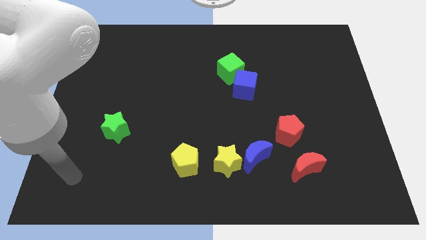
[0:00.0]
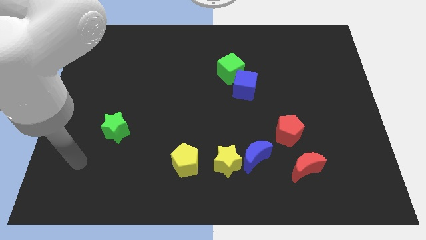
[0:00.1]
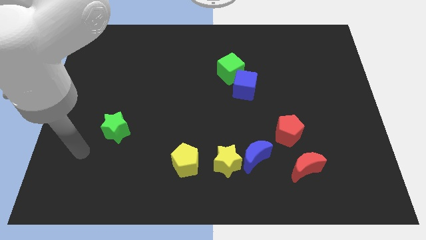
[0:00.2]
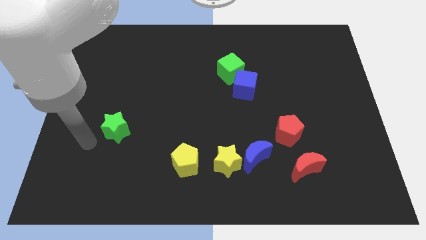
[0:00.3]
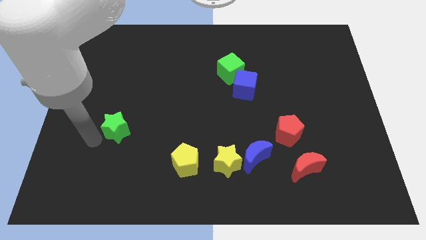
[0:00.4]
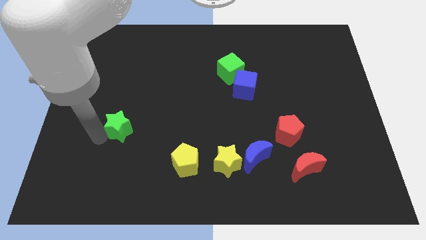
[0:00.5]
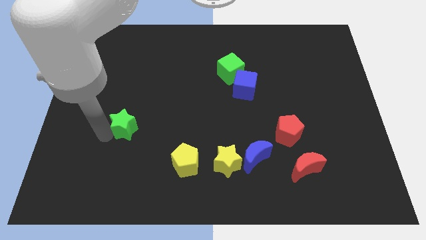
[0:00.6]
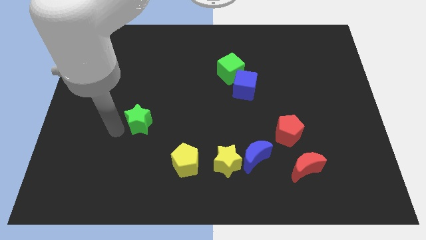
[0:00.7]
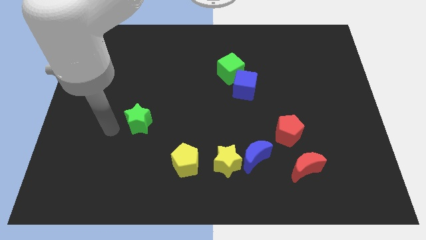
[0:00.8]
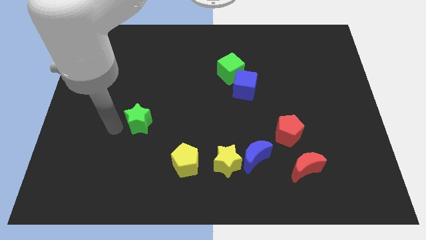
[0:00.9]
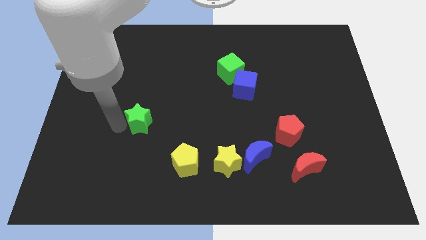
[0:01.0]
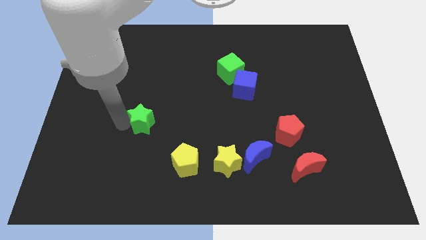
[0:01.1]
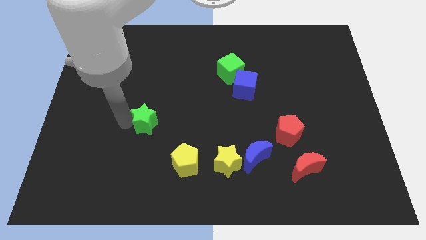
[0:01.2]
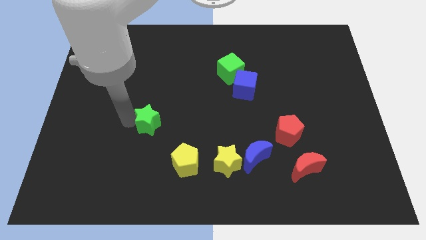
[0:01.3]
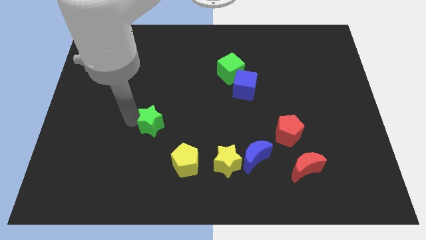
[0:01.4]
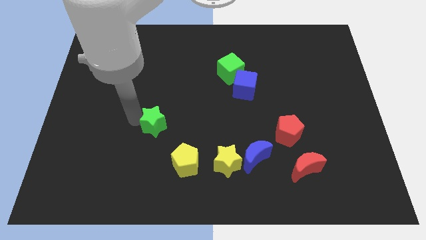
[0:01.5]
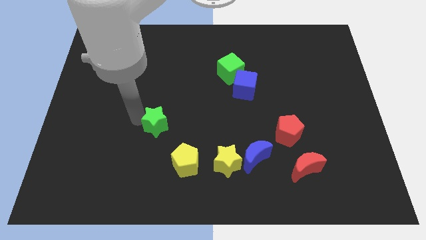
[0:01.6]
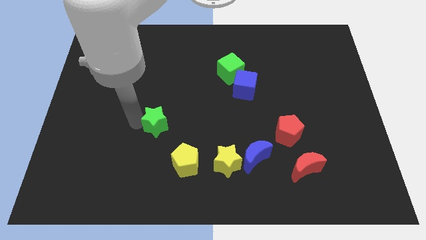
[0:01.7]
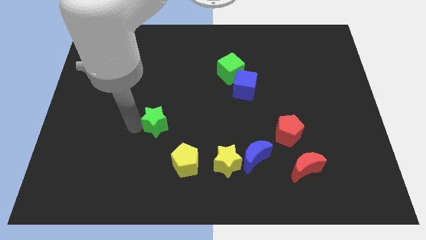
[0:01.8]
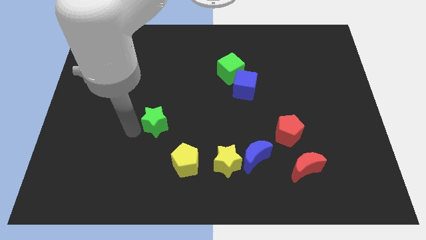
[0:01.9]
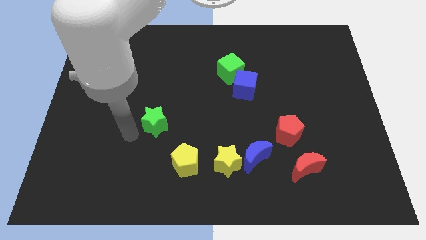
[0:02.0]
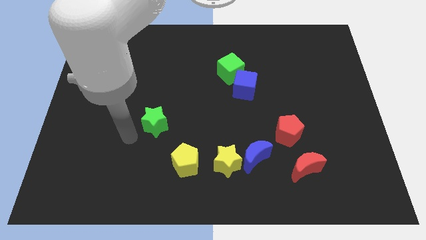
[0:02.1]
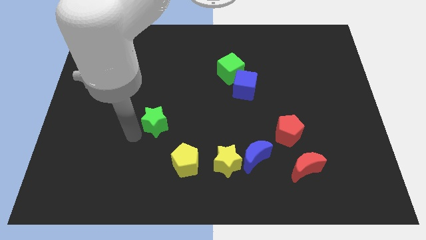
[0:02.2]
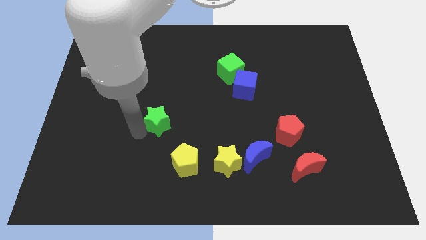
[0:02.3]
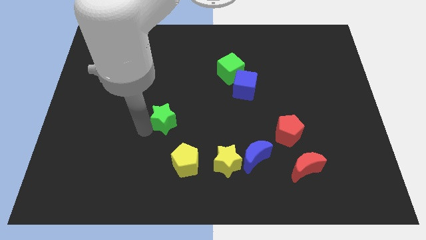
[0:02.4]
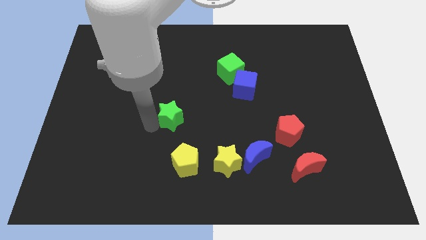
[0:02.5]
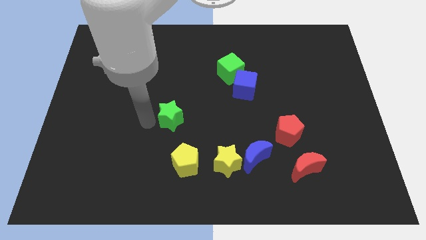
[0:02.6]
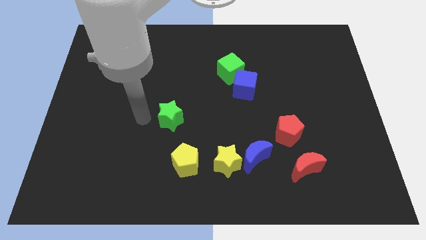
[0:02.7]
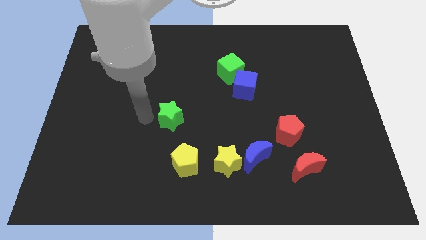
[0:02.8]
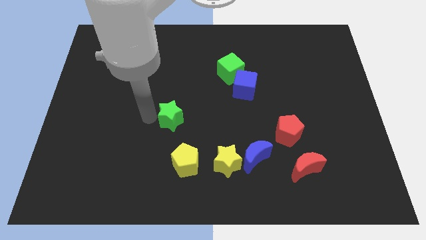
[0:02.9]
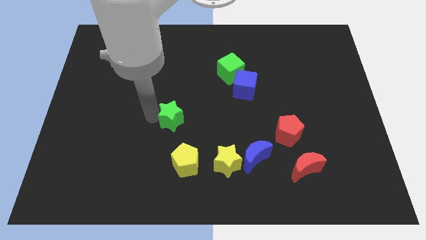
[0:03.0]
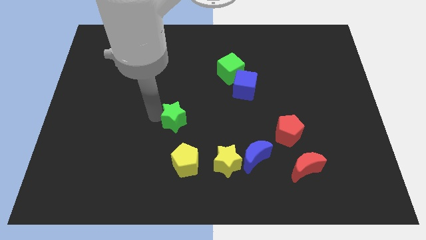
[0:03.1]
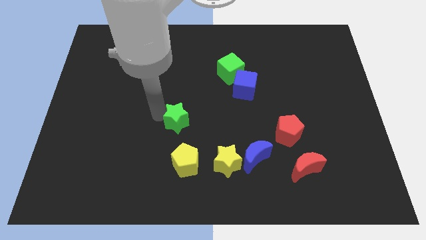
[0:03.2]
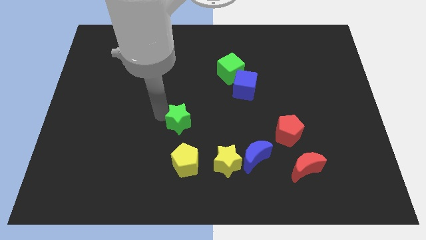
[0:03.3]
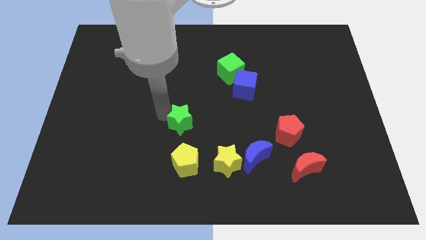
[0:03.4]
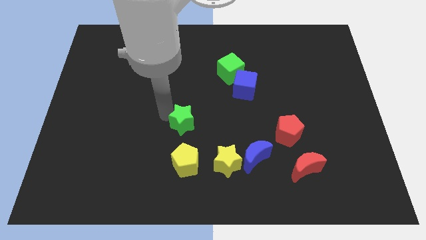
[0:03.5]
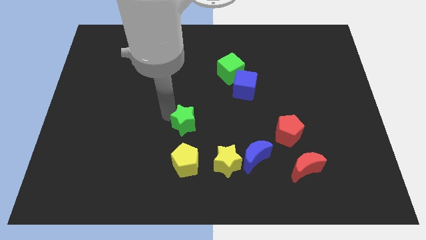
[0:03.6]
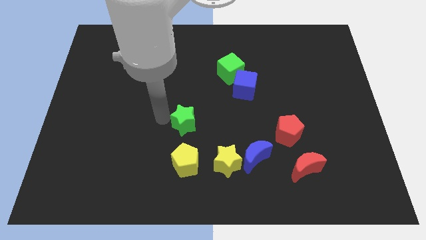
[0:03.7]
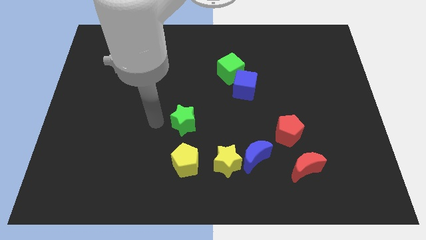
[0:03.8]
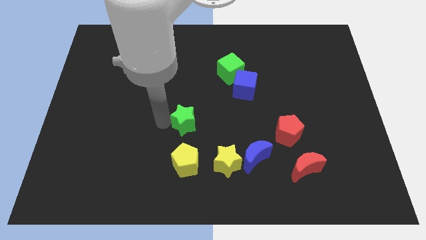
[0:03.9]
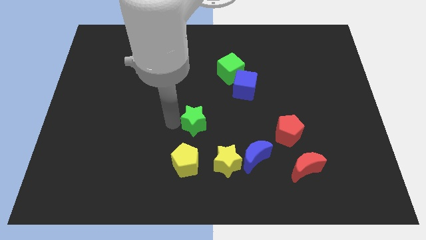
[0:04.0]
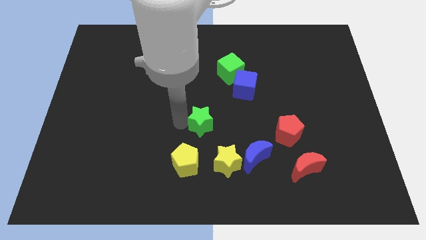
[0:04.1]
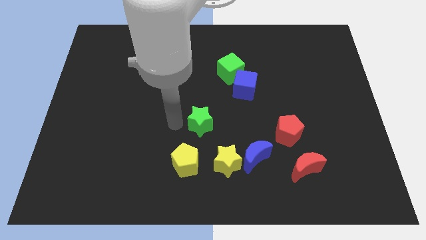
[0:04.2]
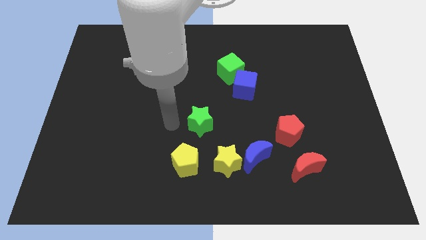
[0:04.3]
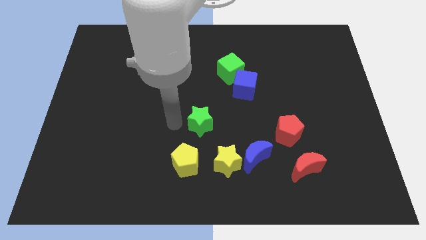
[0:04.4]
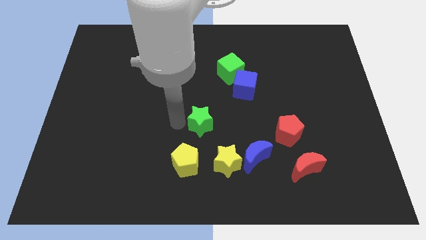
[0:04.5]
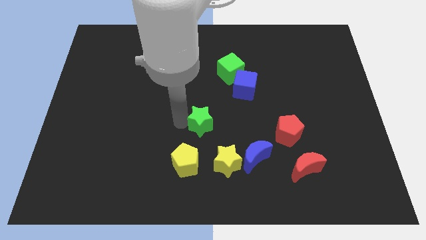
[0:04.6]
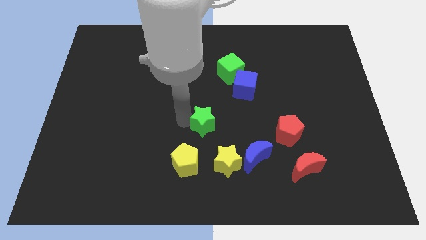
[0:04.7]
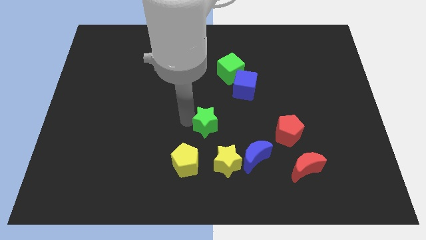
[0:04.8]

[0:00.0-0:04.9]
move the green star to the top of the yellow star

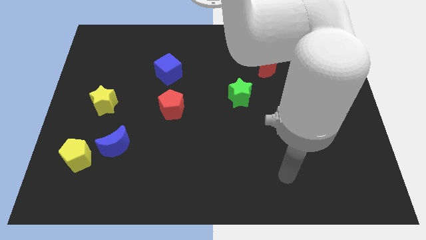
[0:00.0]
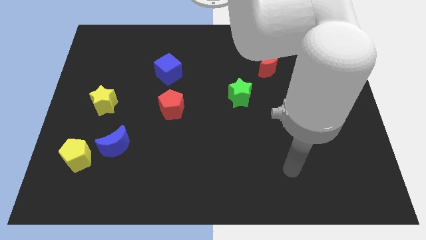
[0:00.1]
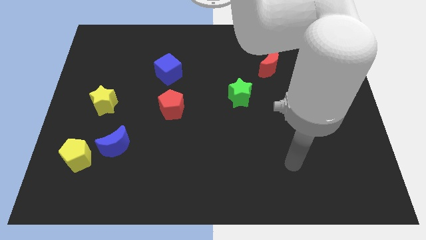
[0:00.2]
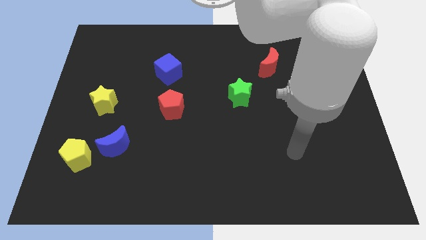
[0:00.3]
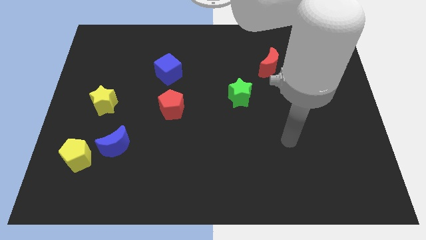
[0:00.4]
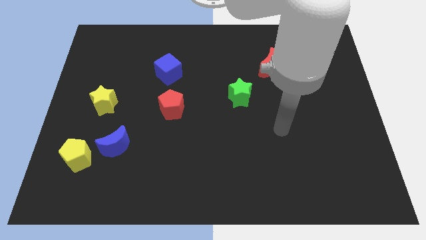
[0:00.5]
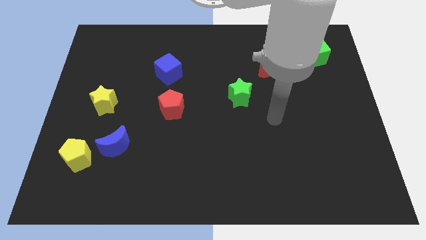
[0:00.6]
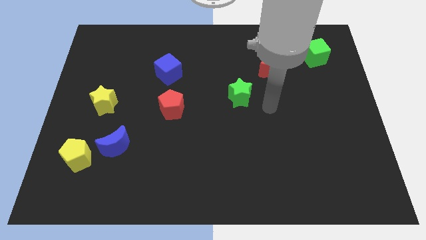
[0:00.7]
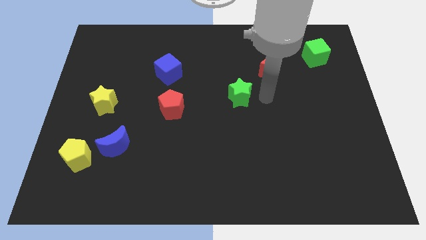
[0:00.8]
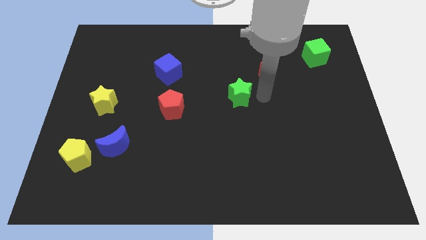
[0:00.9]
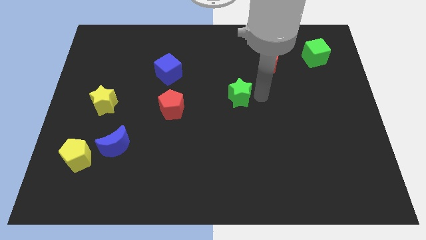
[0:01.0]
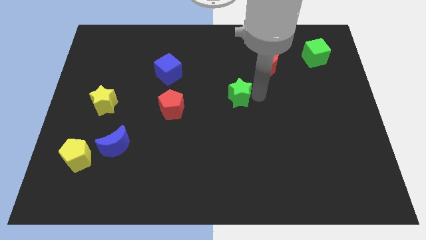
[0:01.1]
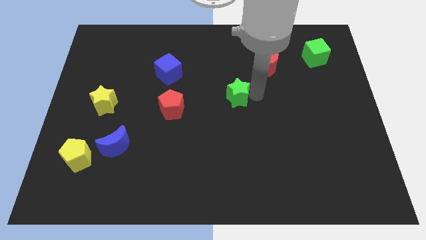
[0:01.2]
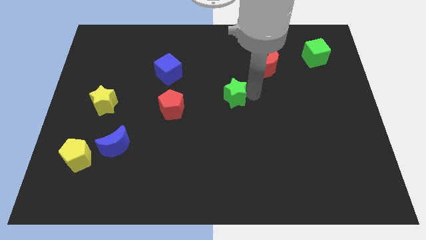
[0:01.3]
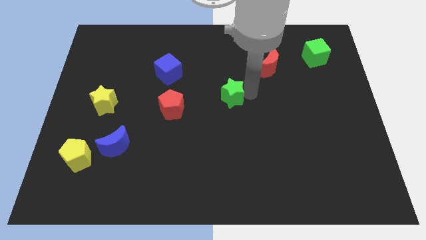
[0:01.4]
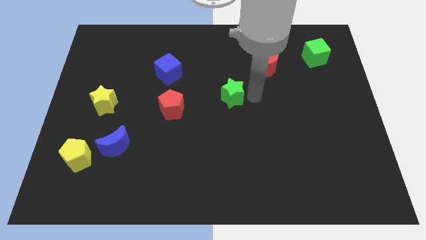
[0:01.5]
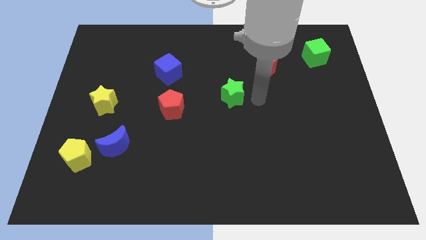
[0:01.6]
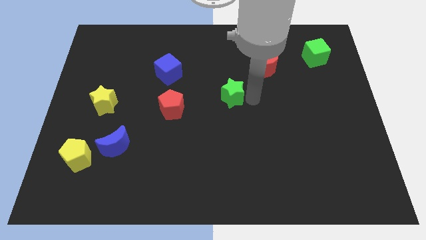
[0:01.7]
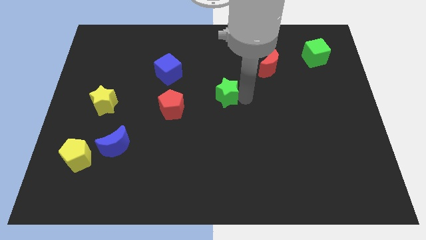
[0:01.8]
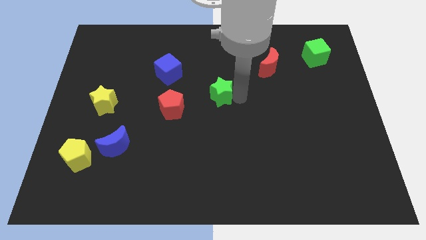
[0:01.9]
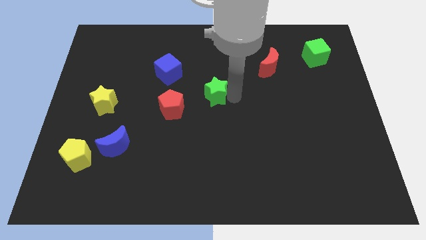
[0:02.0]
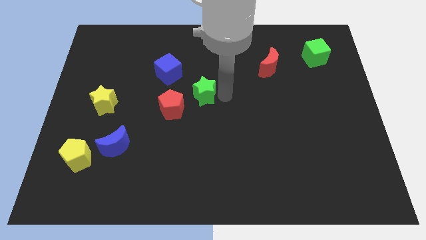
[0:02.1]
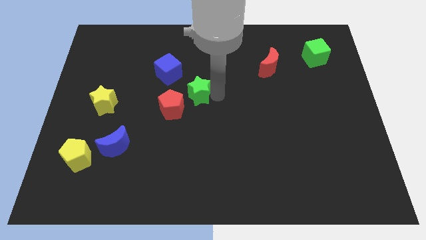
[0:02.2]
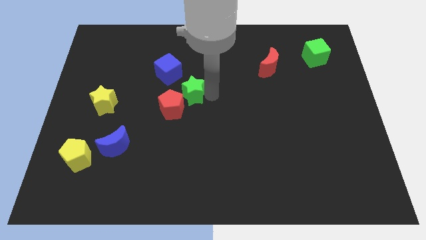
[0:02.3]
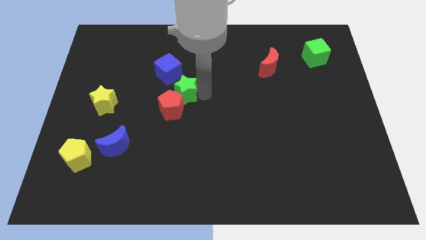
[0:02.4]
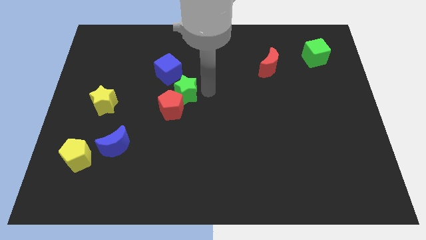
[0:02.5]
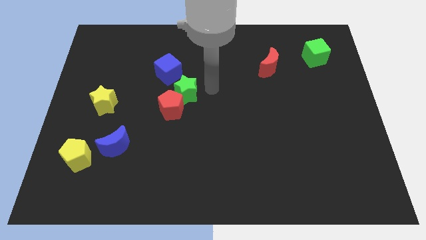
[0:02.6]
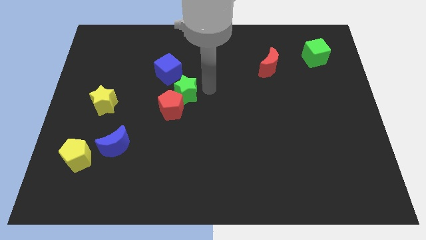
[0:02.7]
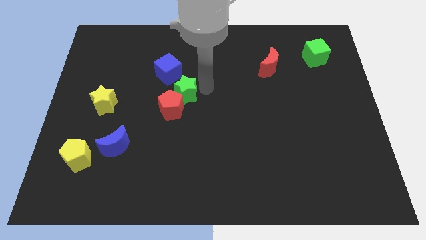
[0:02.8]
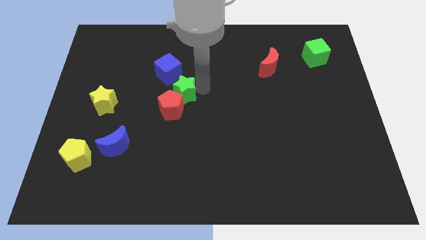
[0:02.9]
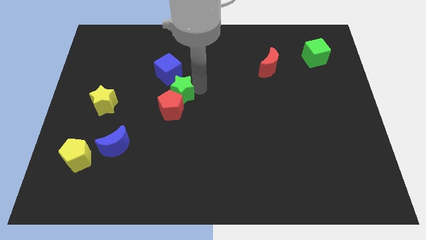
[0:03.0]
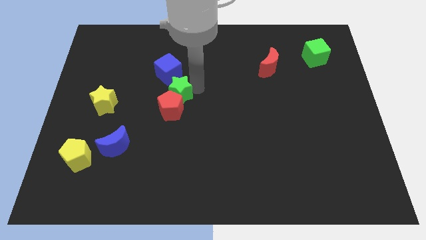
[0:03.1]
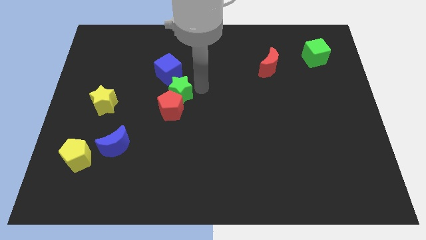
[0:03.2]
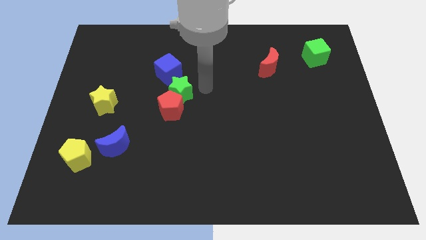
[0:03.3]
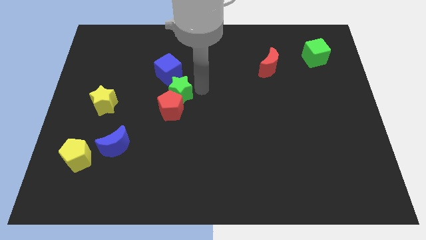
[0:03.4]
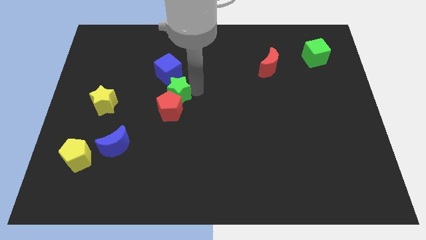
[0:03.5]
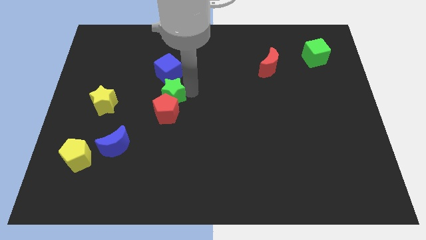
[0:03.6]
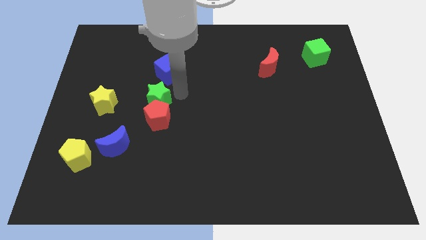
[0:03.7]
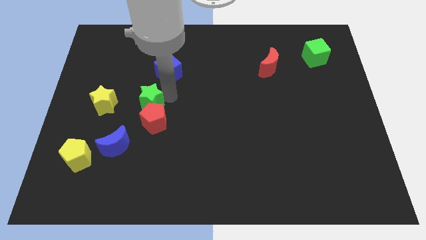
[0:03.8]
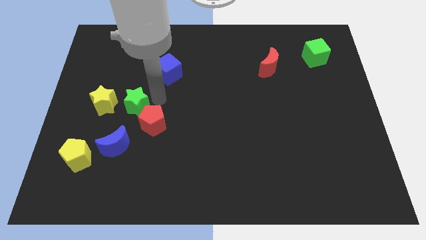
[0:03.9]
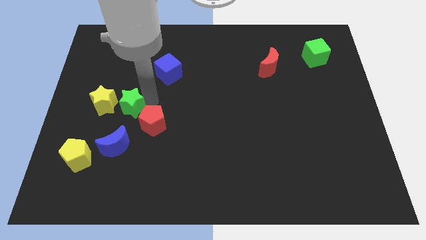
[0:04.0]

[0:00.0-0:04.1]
slide the green star just left of the red pentagon
